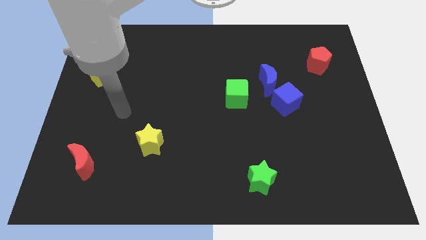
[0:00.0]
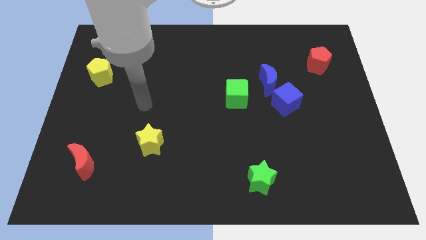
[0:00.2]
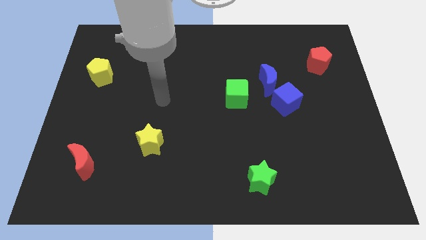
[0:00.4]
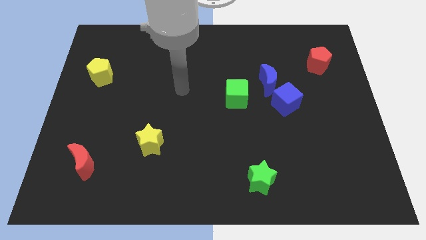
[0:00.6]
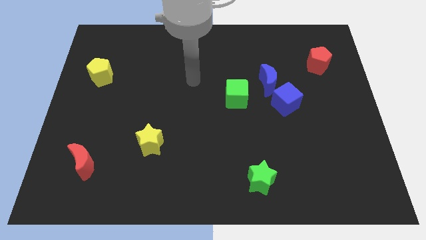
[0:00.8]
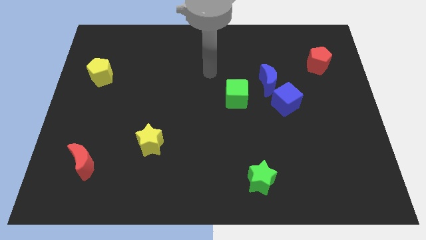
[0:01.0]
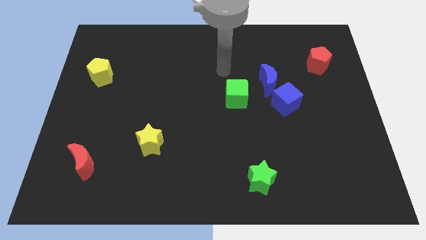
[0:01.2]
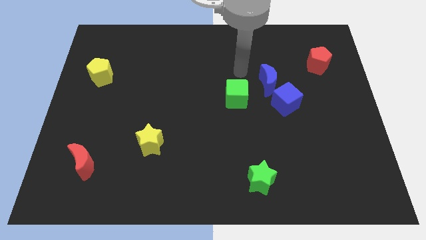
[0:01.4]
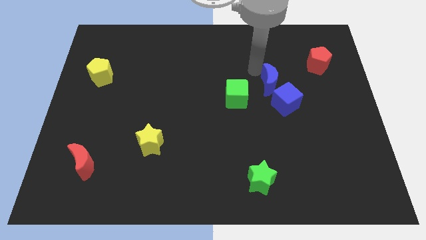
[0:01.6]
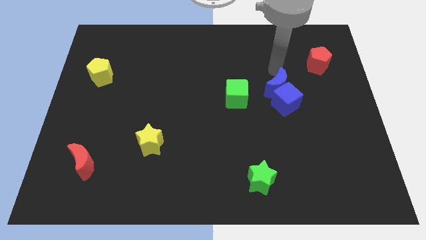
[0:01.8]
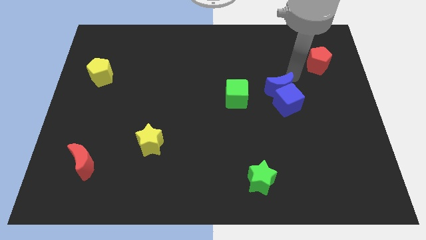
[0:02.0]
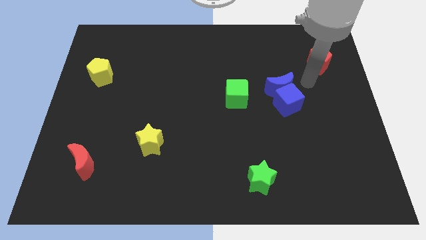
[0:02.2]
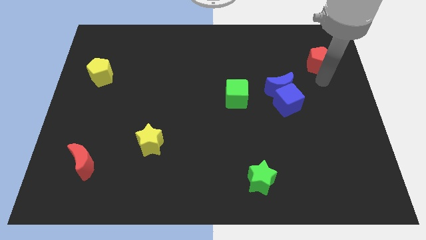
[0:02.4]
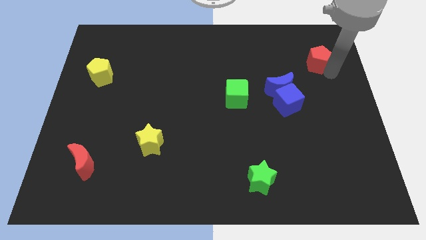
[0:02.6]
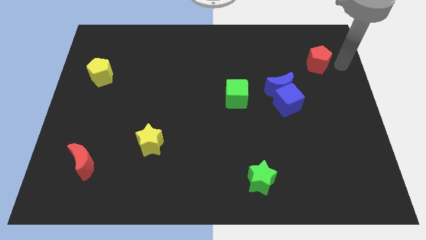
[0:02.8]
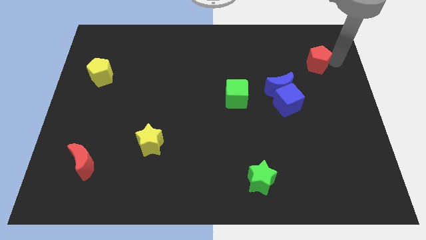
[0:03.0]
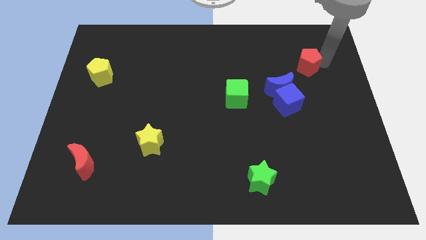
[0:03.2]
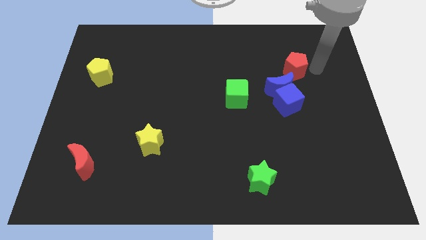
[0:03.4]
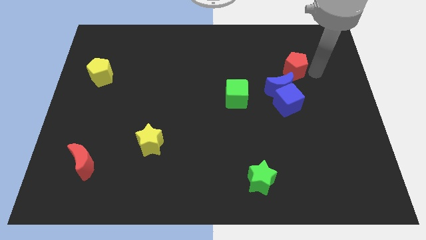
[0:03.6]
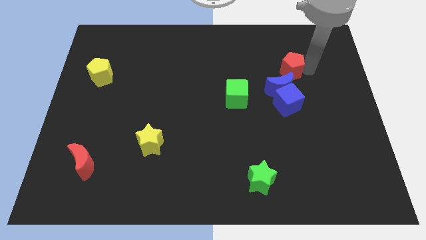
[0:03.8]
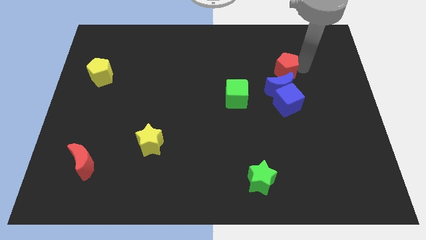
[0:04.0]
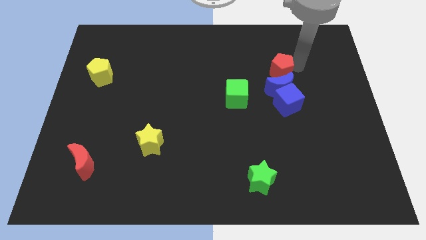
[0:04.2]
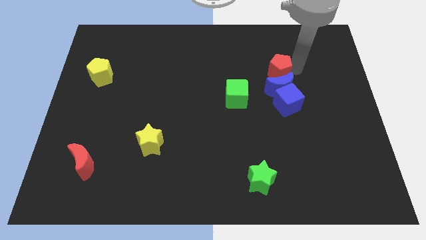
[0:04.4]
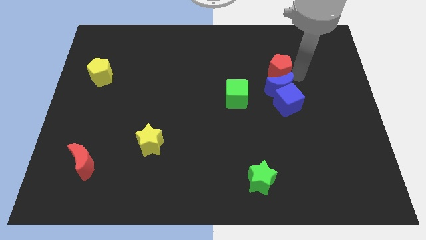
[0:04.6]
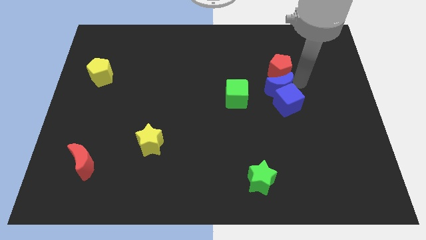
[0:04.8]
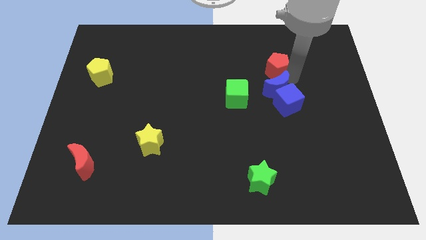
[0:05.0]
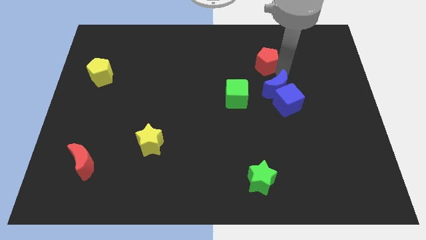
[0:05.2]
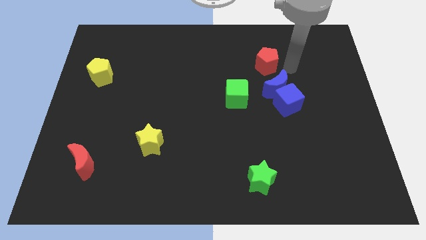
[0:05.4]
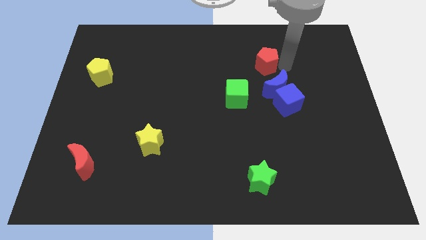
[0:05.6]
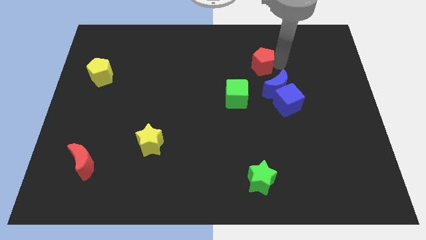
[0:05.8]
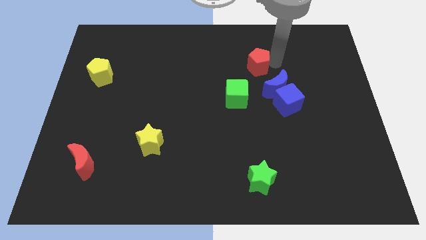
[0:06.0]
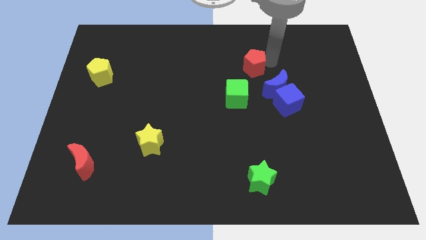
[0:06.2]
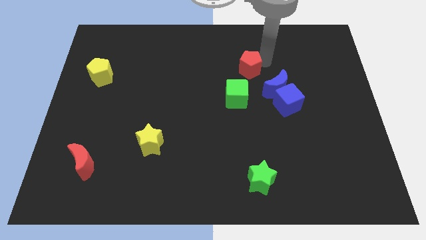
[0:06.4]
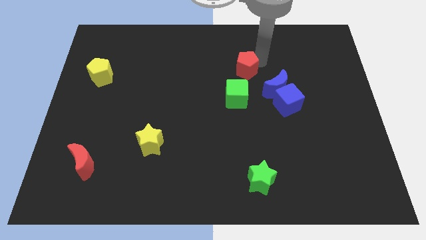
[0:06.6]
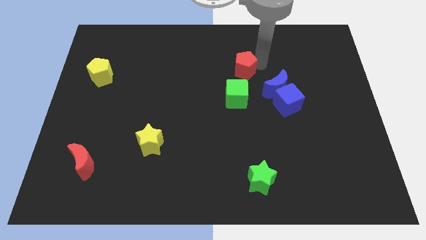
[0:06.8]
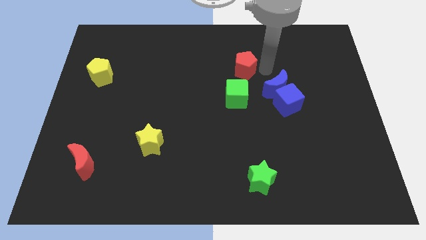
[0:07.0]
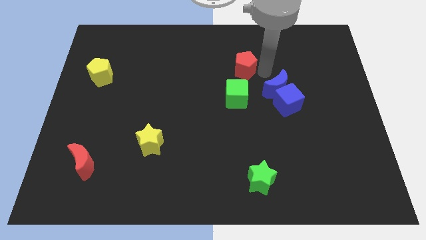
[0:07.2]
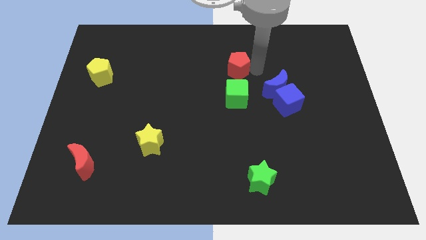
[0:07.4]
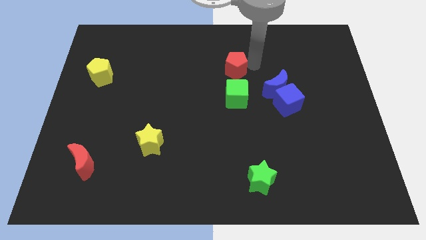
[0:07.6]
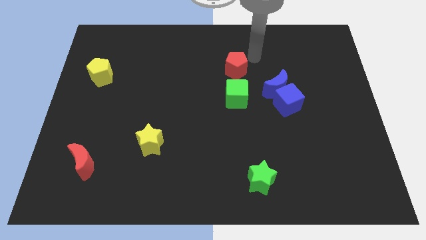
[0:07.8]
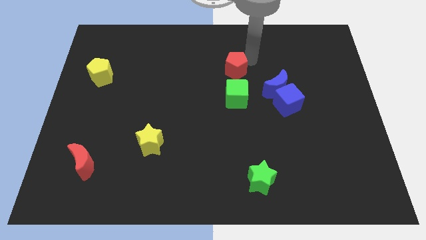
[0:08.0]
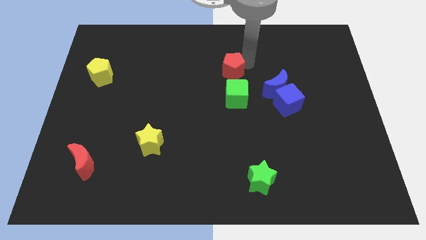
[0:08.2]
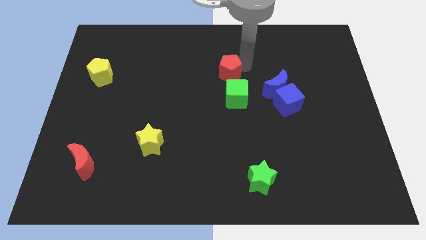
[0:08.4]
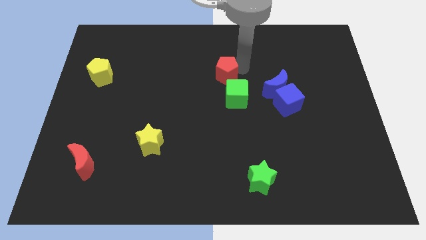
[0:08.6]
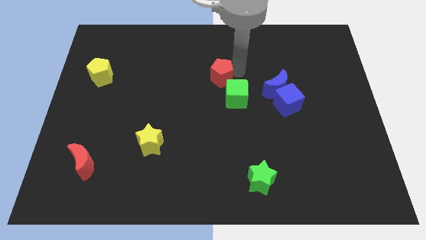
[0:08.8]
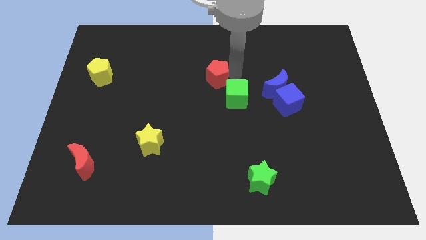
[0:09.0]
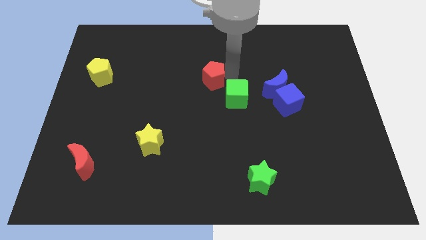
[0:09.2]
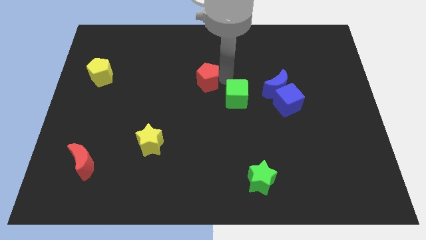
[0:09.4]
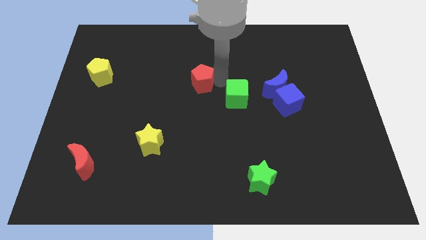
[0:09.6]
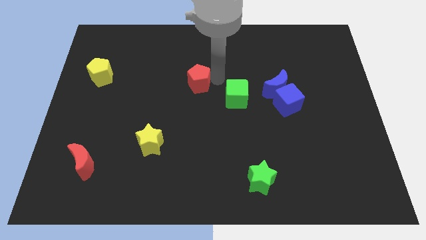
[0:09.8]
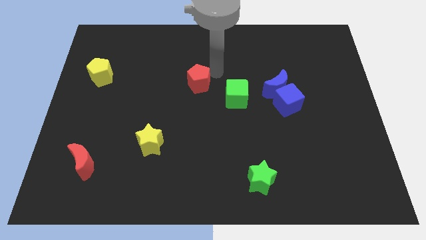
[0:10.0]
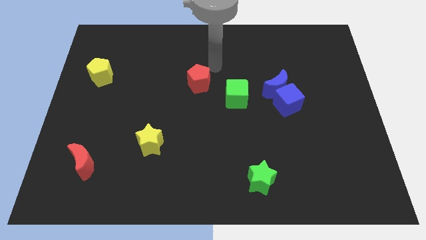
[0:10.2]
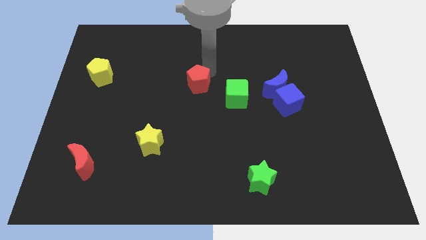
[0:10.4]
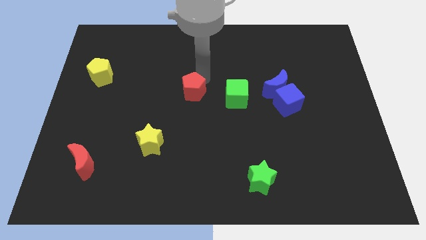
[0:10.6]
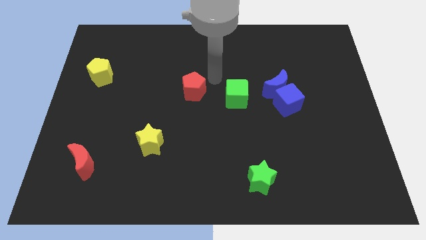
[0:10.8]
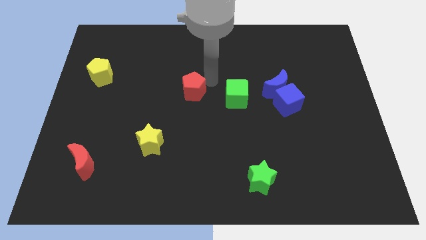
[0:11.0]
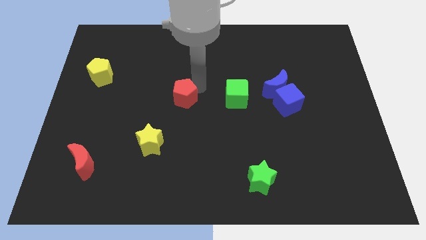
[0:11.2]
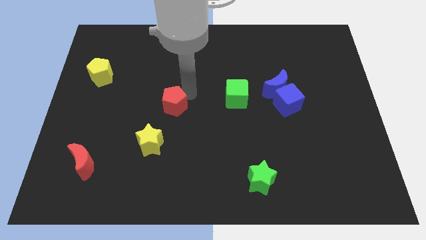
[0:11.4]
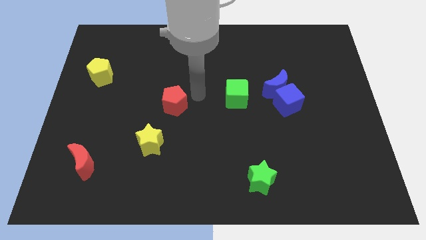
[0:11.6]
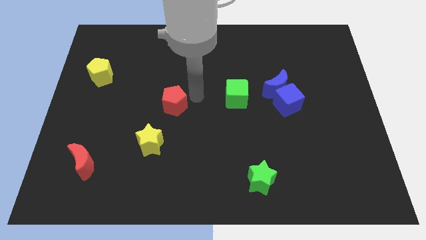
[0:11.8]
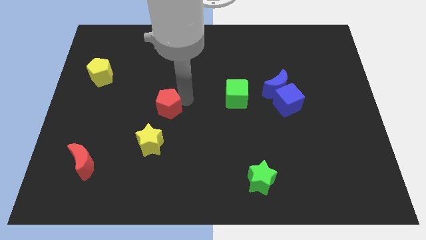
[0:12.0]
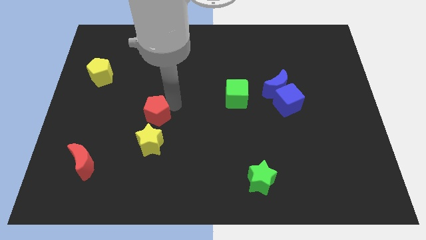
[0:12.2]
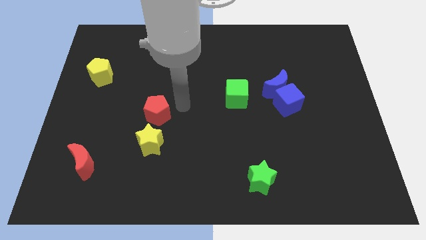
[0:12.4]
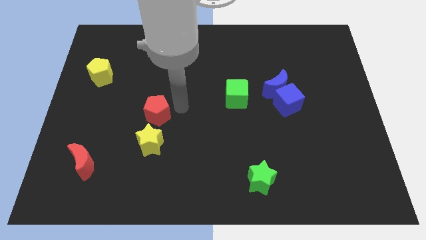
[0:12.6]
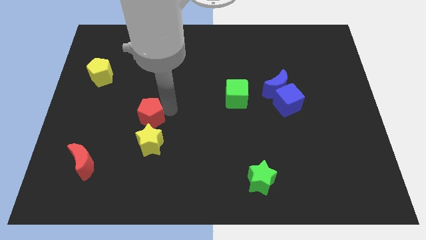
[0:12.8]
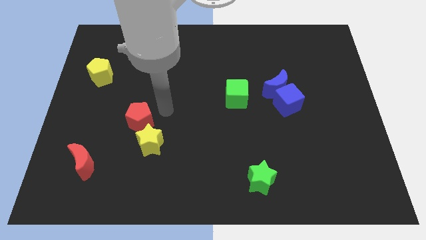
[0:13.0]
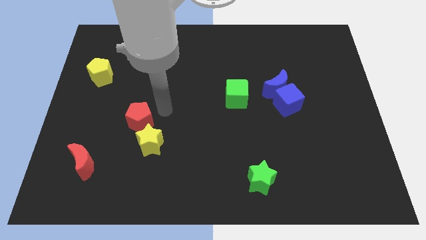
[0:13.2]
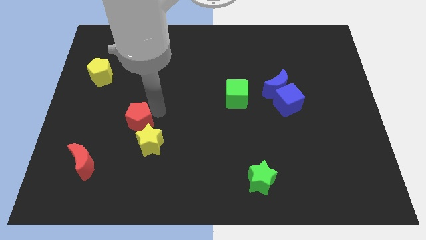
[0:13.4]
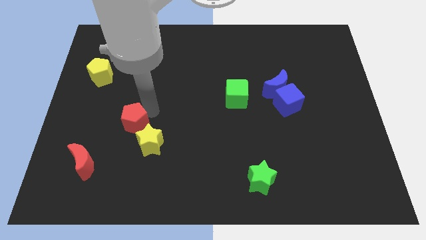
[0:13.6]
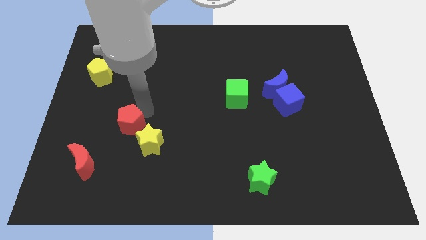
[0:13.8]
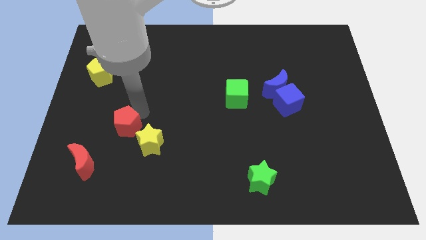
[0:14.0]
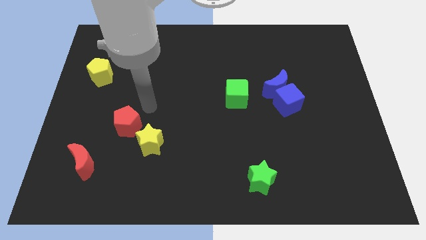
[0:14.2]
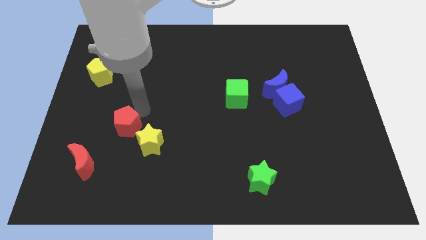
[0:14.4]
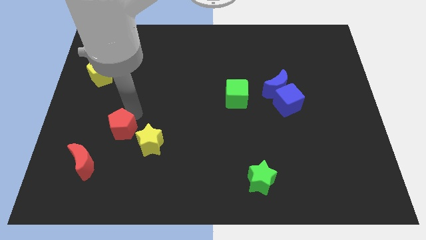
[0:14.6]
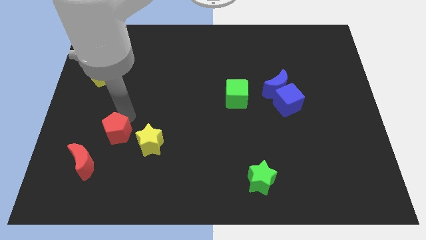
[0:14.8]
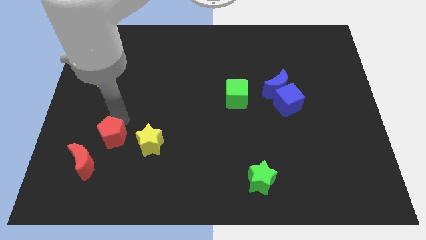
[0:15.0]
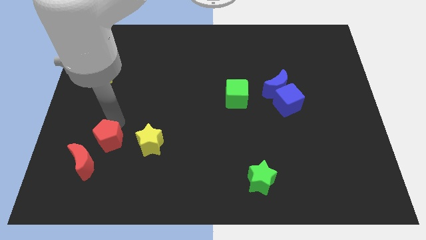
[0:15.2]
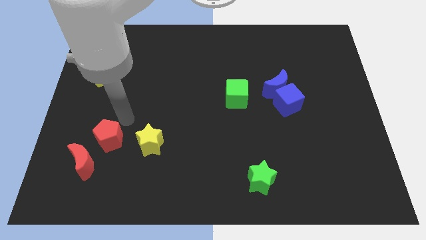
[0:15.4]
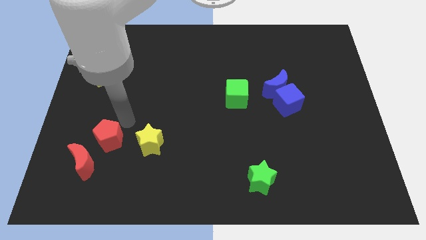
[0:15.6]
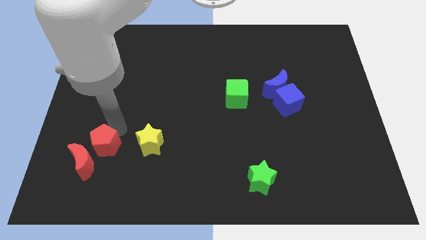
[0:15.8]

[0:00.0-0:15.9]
move the red pentagon next to the red moon
